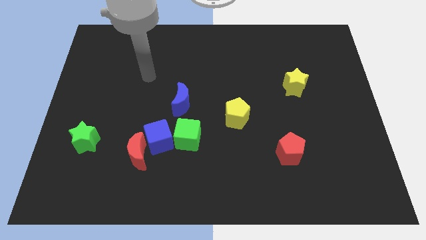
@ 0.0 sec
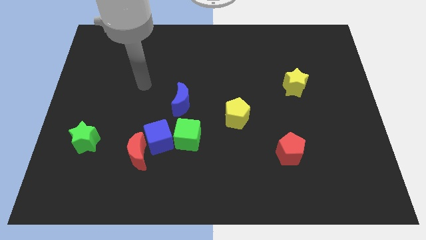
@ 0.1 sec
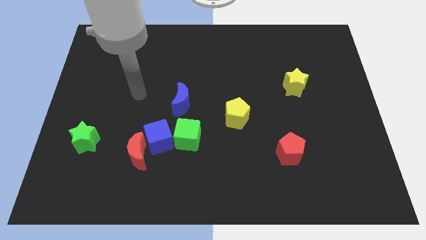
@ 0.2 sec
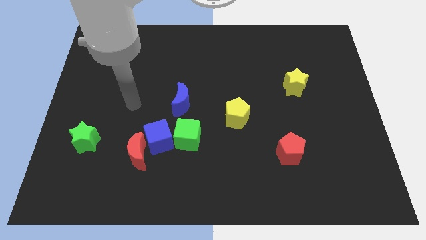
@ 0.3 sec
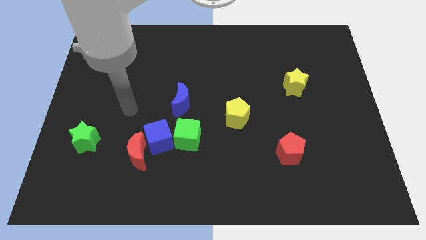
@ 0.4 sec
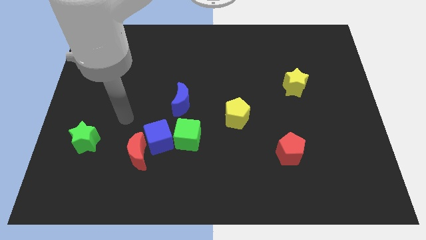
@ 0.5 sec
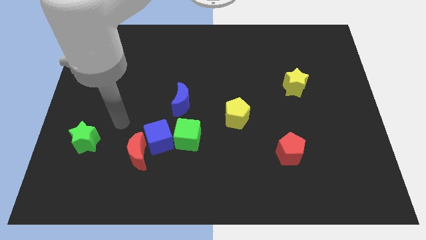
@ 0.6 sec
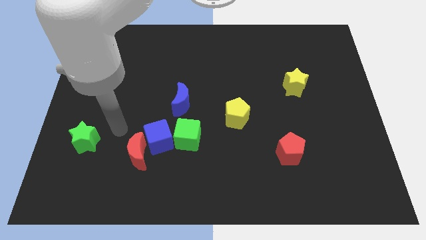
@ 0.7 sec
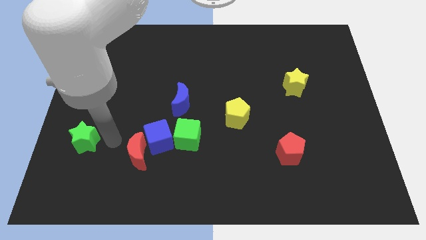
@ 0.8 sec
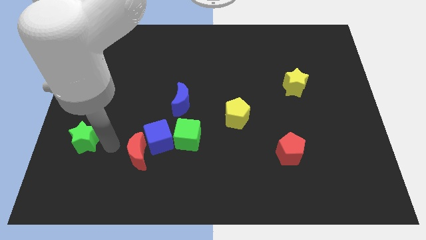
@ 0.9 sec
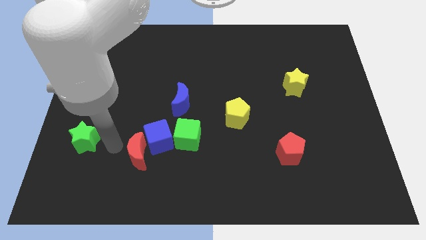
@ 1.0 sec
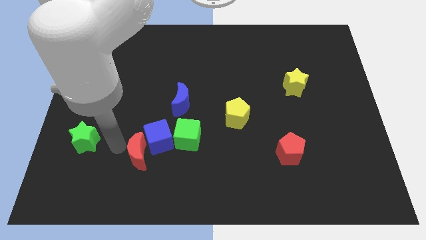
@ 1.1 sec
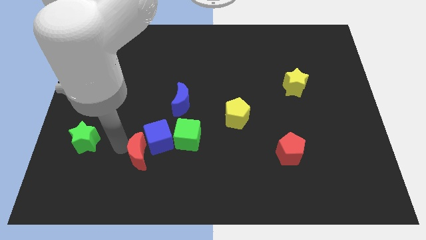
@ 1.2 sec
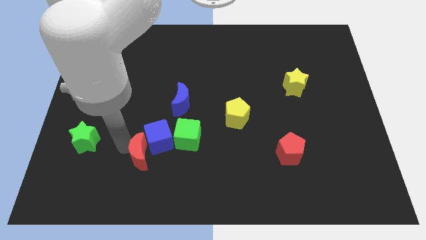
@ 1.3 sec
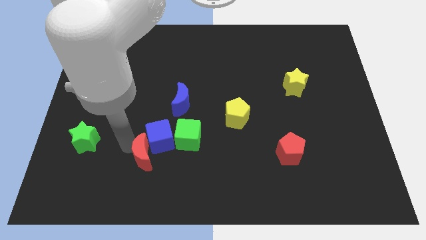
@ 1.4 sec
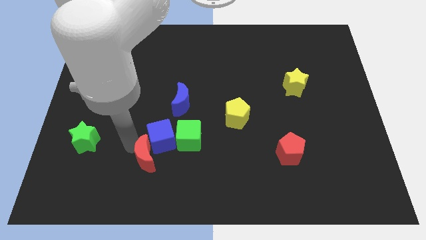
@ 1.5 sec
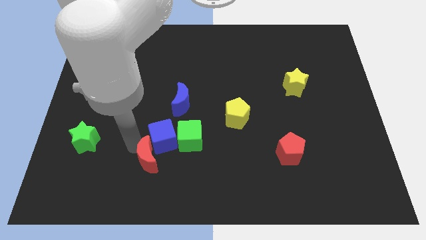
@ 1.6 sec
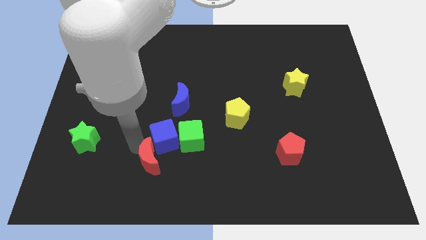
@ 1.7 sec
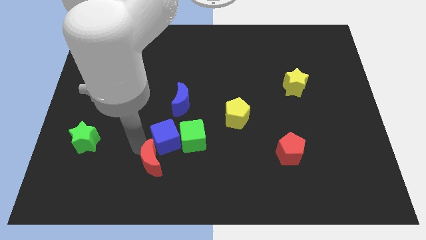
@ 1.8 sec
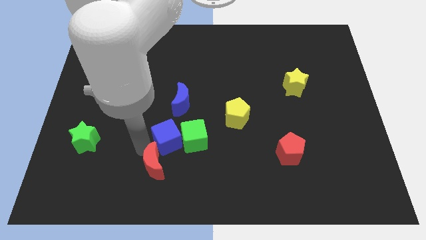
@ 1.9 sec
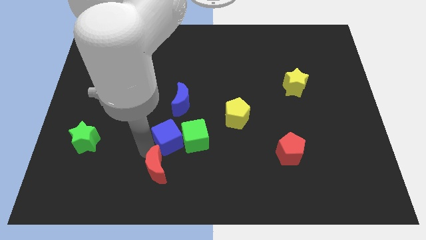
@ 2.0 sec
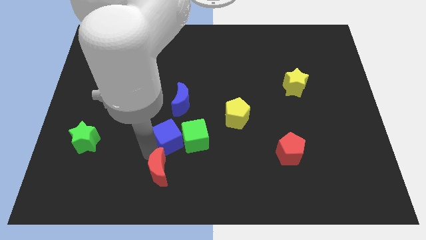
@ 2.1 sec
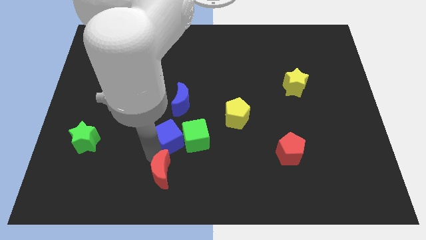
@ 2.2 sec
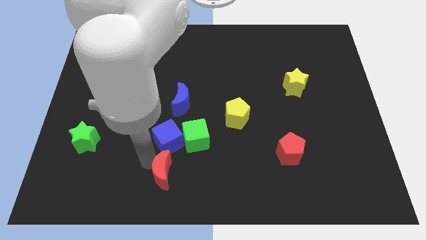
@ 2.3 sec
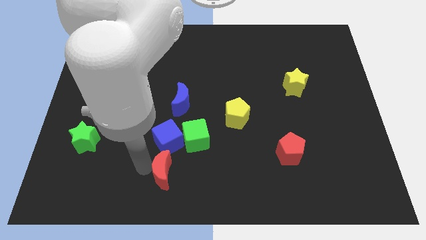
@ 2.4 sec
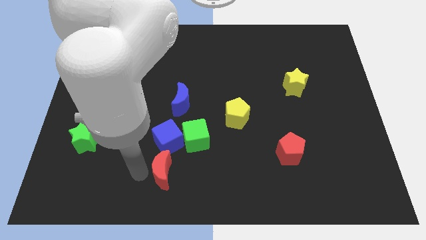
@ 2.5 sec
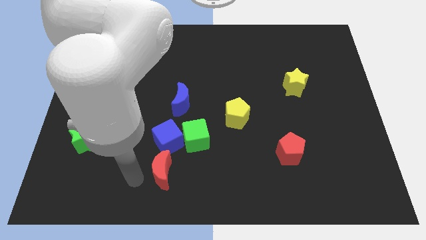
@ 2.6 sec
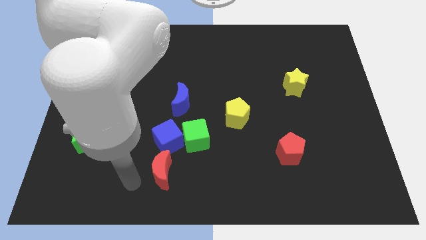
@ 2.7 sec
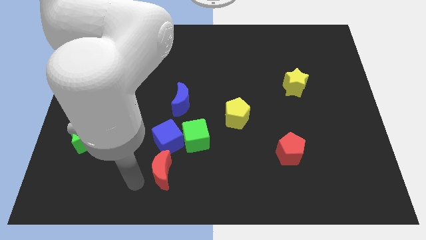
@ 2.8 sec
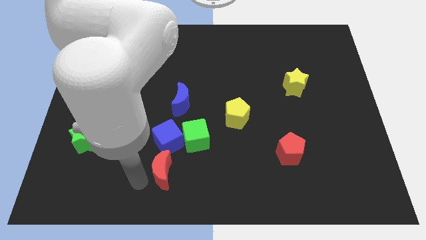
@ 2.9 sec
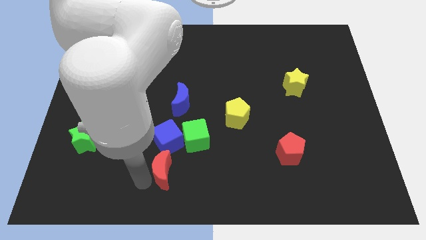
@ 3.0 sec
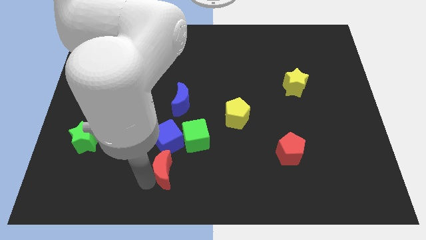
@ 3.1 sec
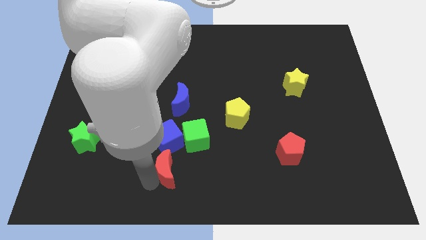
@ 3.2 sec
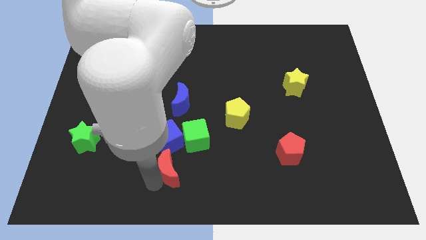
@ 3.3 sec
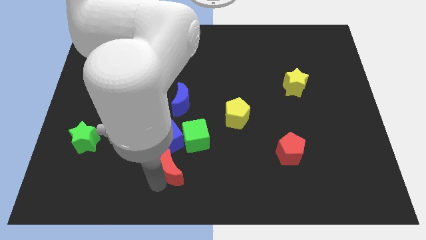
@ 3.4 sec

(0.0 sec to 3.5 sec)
slightly push the red moon to the right

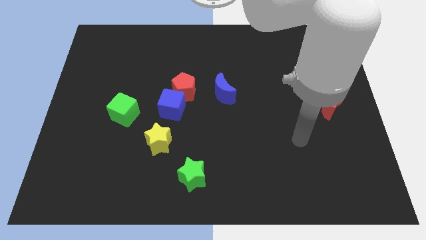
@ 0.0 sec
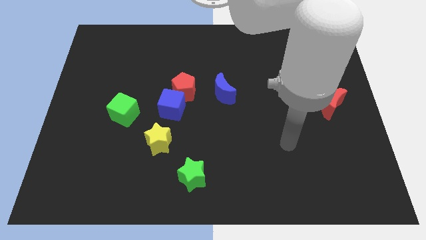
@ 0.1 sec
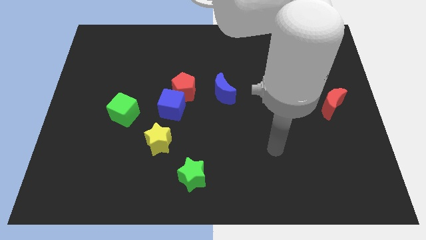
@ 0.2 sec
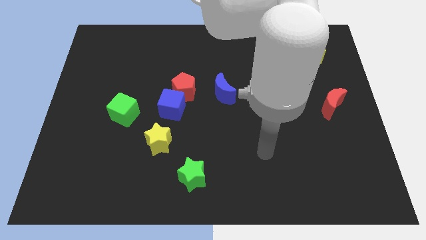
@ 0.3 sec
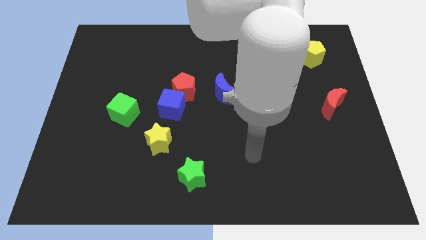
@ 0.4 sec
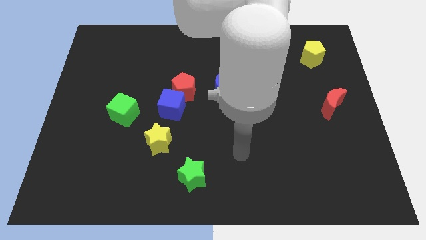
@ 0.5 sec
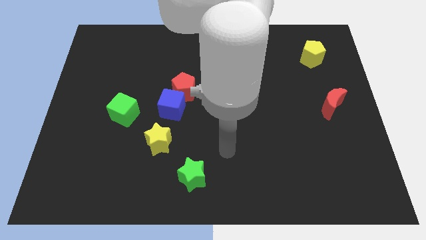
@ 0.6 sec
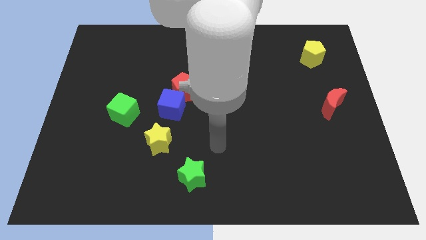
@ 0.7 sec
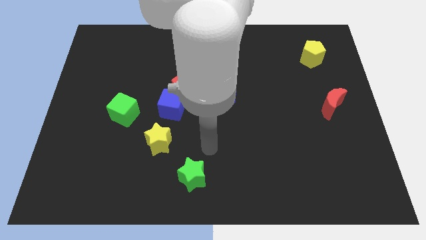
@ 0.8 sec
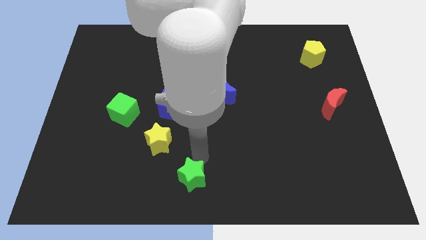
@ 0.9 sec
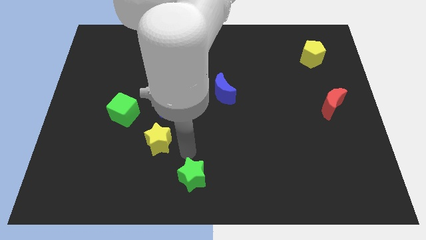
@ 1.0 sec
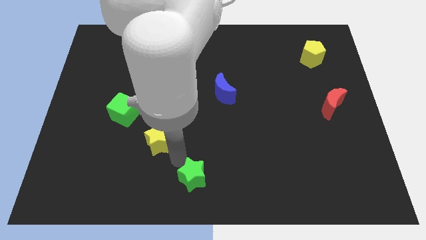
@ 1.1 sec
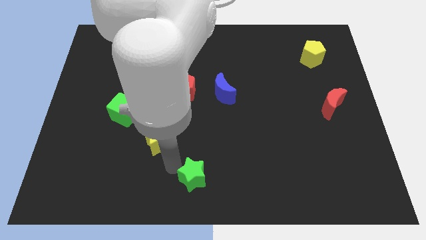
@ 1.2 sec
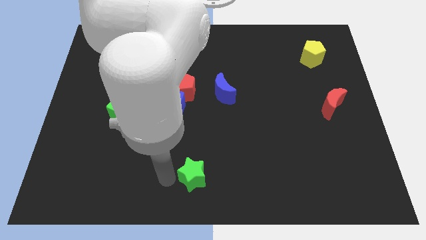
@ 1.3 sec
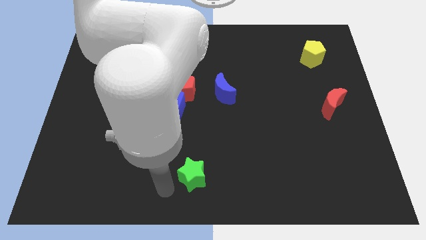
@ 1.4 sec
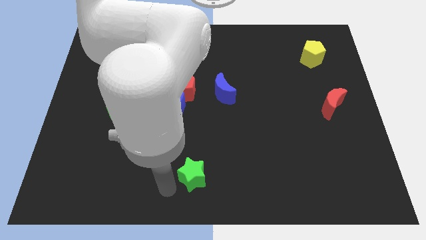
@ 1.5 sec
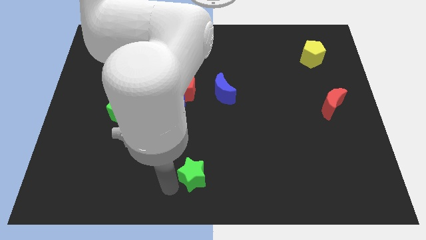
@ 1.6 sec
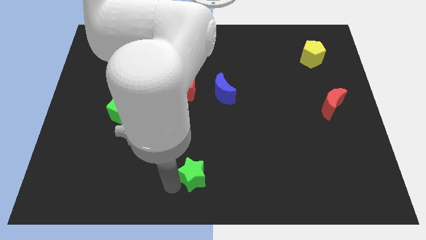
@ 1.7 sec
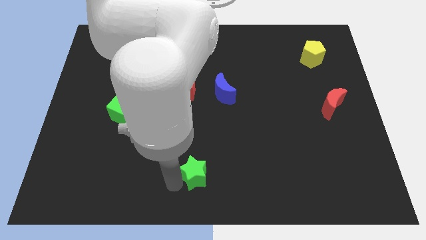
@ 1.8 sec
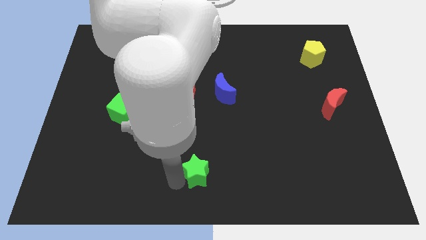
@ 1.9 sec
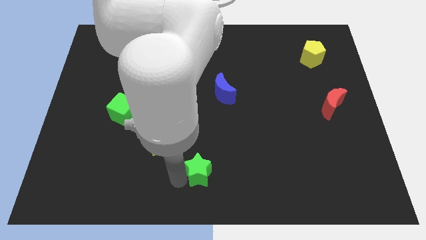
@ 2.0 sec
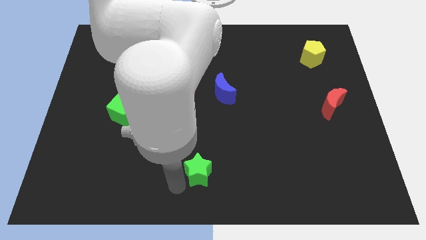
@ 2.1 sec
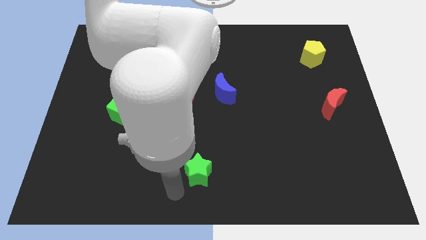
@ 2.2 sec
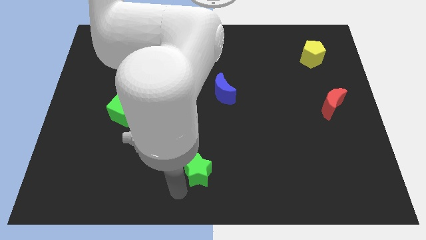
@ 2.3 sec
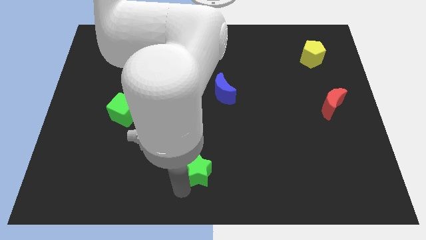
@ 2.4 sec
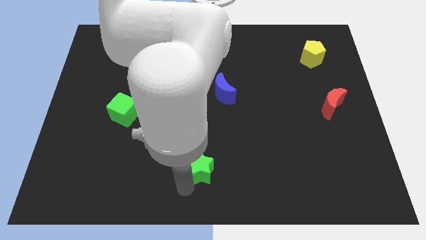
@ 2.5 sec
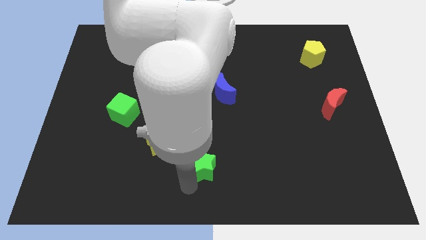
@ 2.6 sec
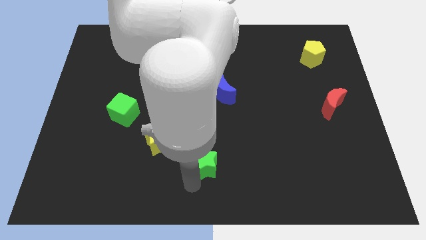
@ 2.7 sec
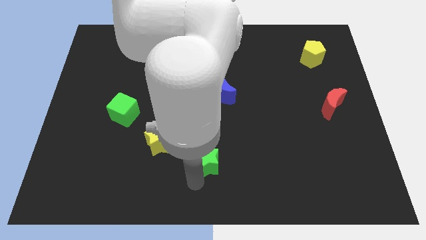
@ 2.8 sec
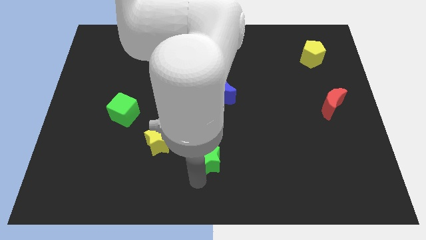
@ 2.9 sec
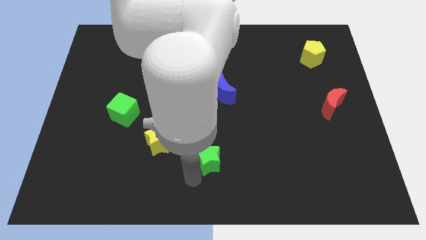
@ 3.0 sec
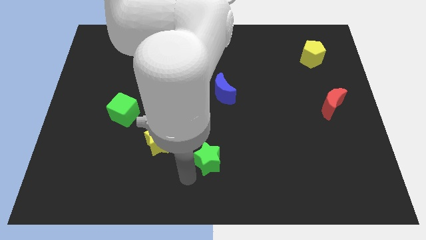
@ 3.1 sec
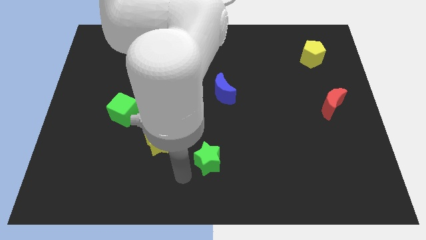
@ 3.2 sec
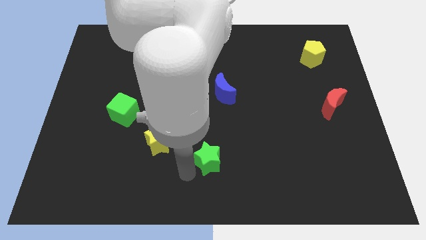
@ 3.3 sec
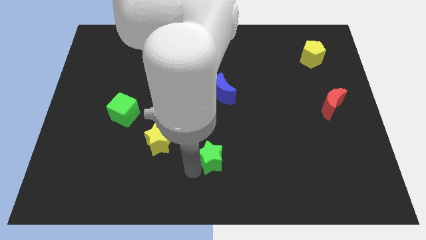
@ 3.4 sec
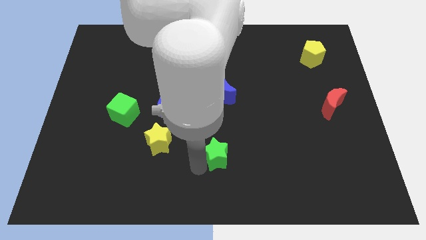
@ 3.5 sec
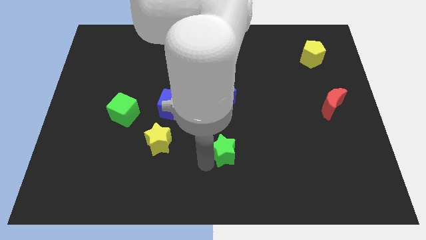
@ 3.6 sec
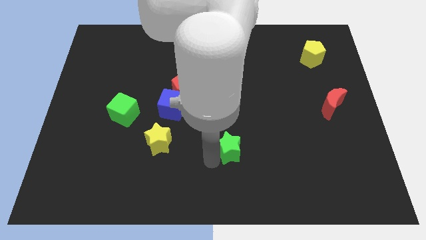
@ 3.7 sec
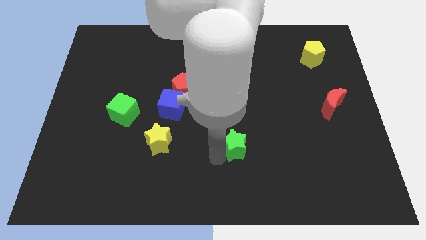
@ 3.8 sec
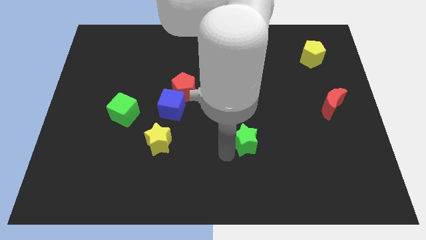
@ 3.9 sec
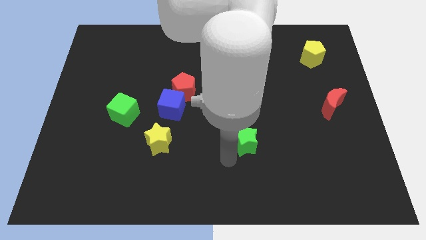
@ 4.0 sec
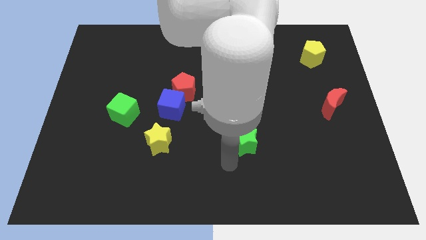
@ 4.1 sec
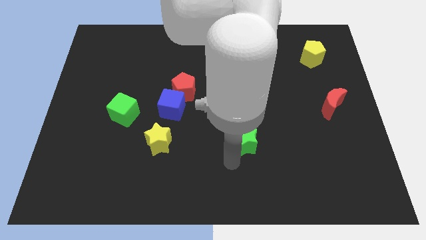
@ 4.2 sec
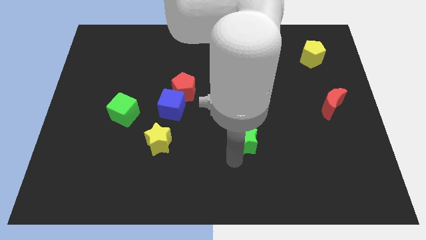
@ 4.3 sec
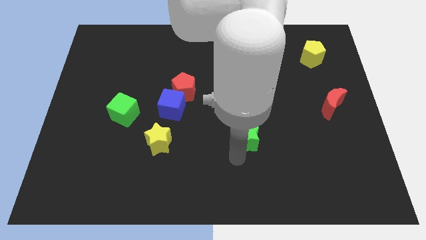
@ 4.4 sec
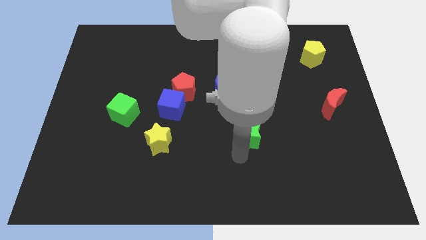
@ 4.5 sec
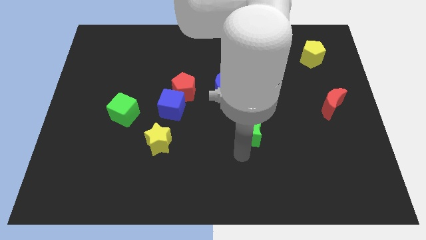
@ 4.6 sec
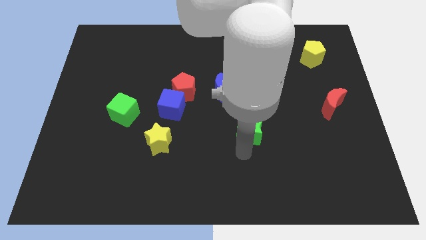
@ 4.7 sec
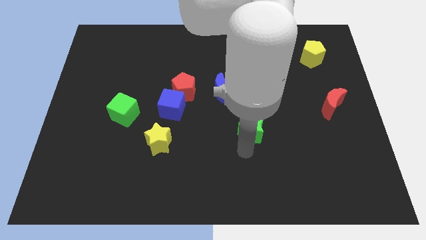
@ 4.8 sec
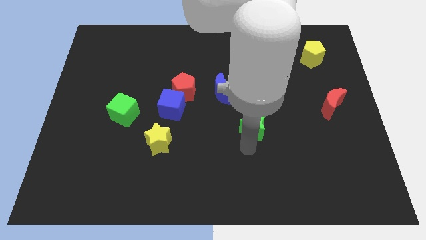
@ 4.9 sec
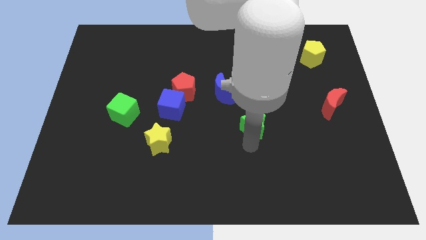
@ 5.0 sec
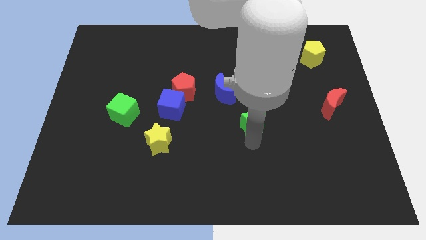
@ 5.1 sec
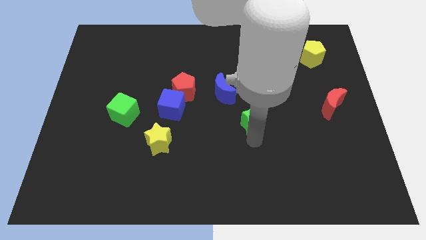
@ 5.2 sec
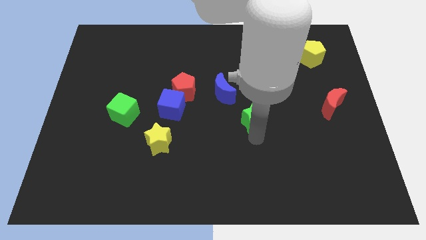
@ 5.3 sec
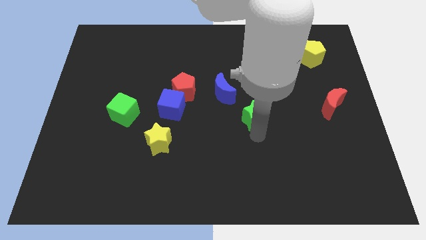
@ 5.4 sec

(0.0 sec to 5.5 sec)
move the green star diagonally up and to the right
